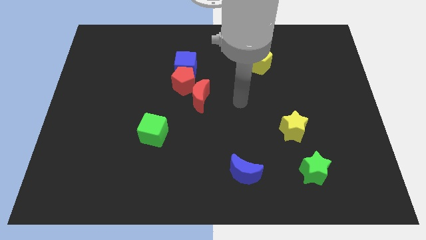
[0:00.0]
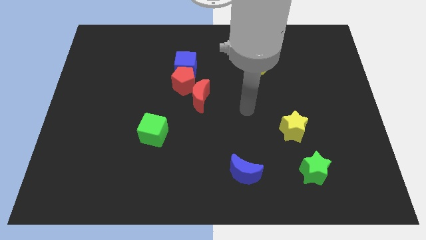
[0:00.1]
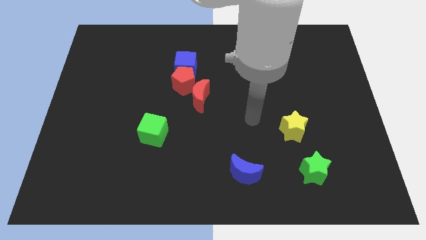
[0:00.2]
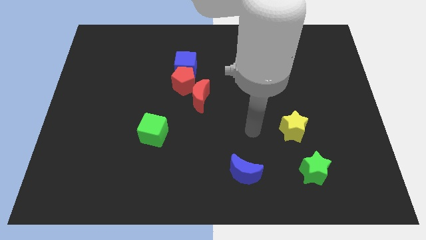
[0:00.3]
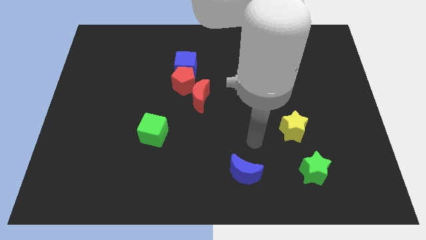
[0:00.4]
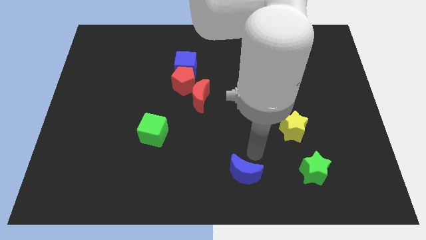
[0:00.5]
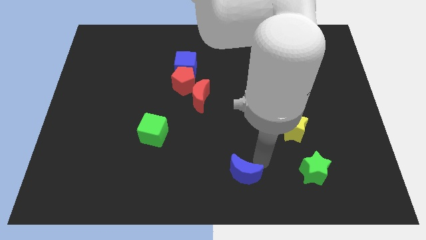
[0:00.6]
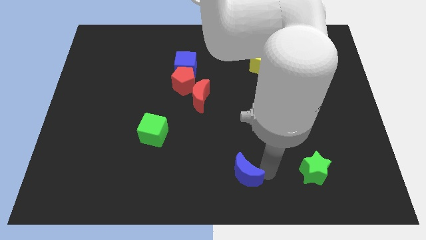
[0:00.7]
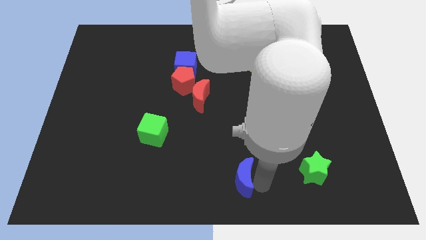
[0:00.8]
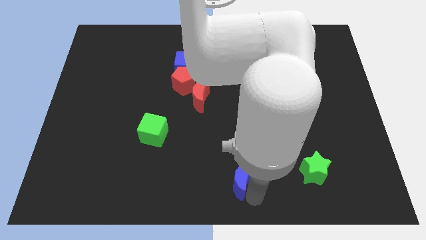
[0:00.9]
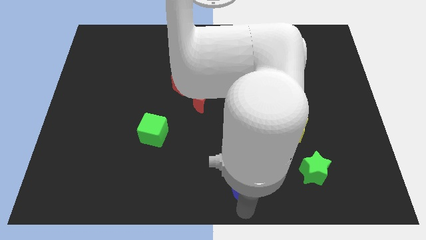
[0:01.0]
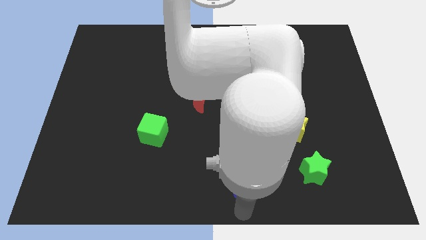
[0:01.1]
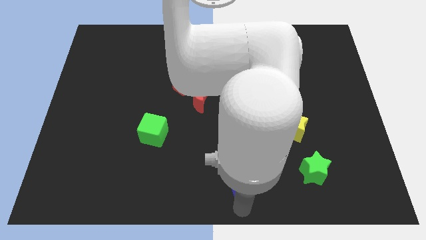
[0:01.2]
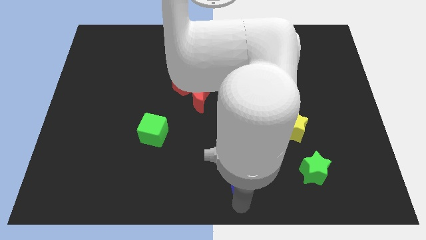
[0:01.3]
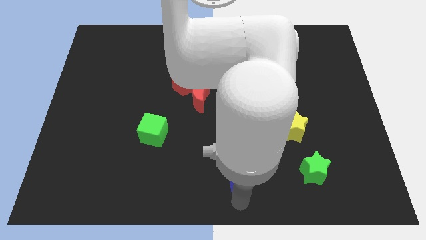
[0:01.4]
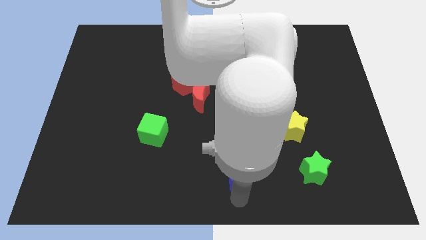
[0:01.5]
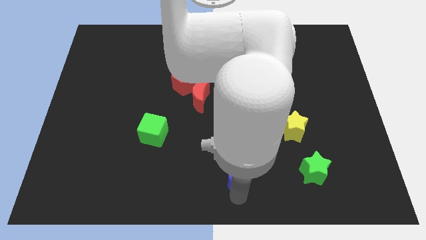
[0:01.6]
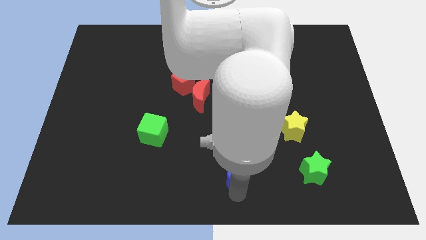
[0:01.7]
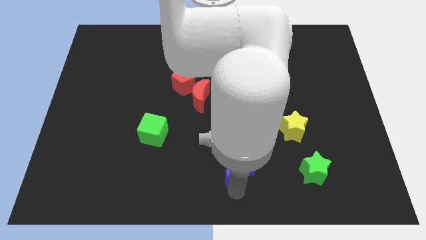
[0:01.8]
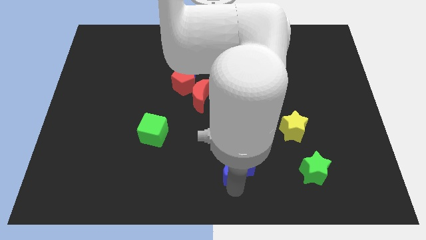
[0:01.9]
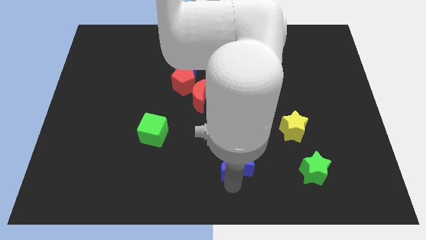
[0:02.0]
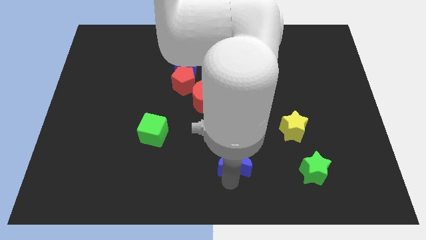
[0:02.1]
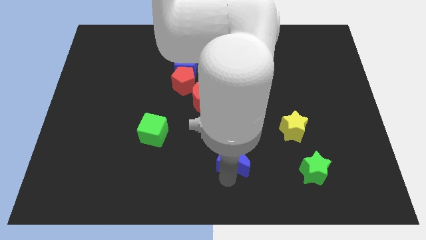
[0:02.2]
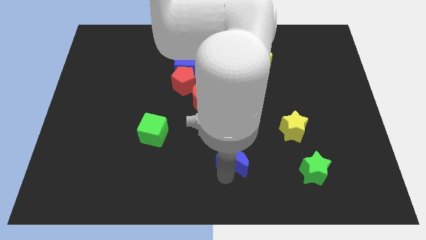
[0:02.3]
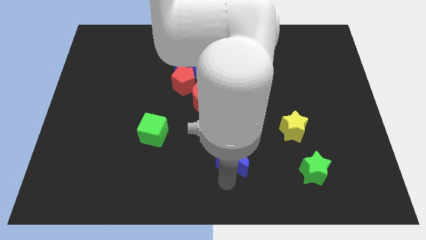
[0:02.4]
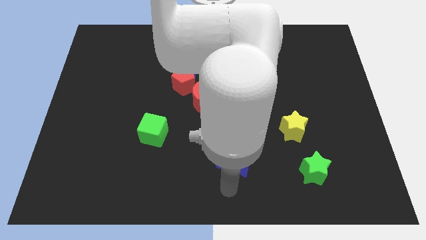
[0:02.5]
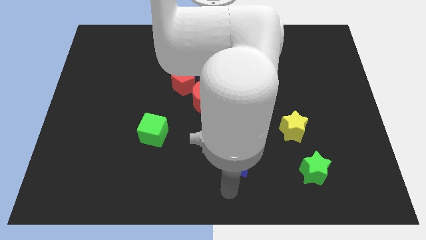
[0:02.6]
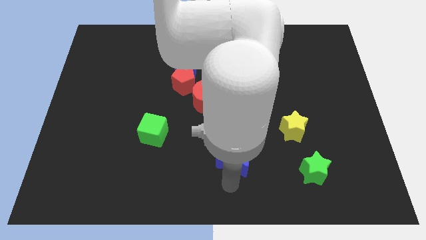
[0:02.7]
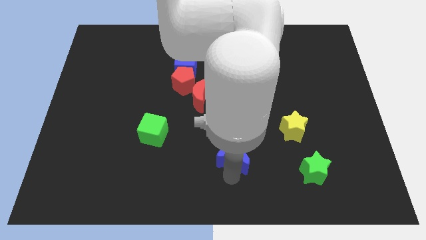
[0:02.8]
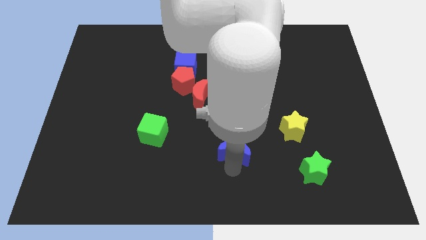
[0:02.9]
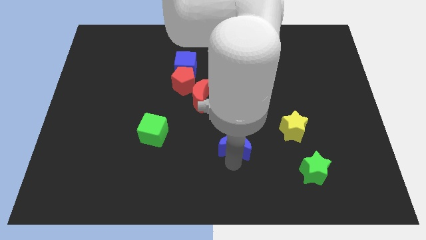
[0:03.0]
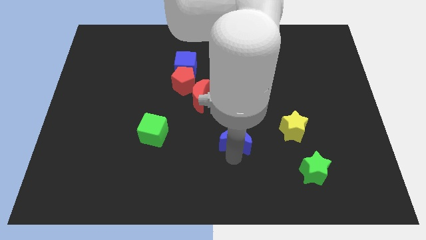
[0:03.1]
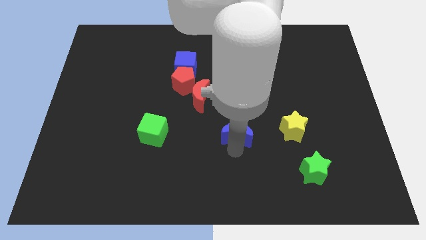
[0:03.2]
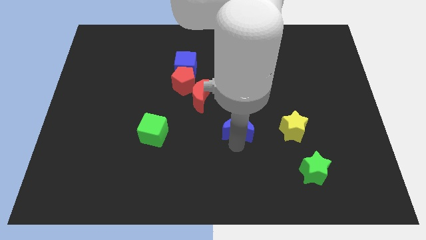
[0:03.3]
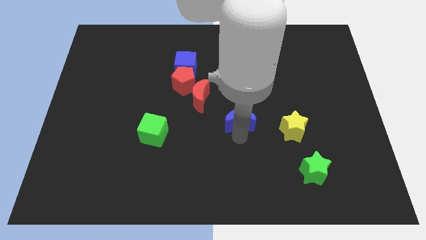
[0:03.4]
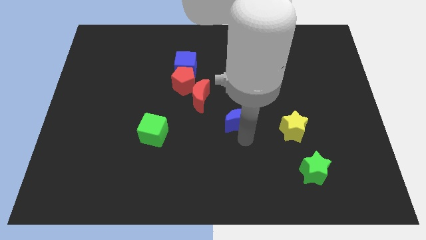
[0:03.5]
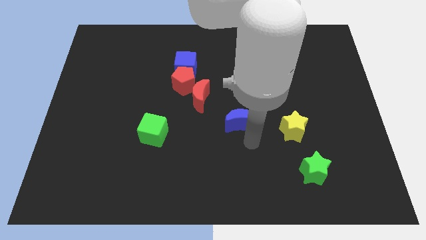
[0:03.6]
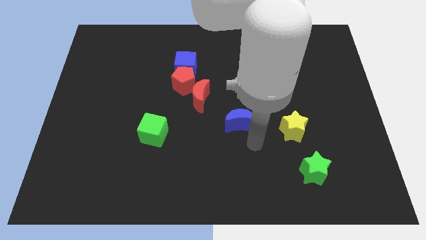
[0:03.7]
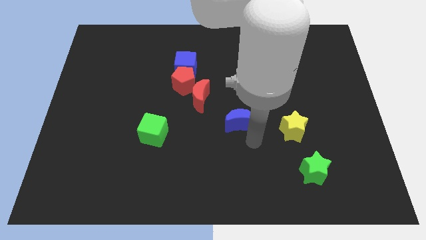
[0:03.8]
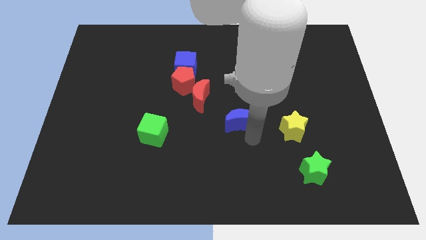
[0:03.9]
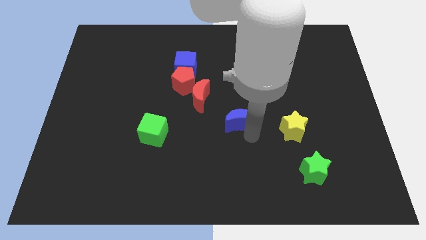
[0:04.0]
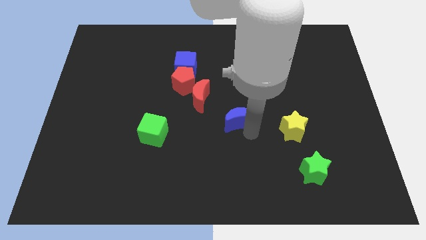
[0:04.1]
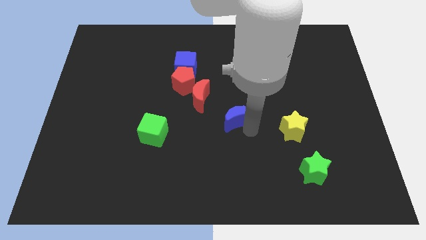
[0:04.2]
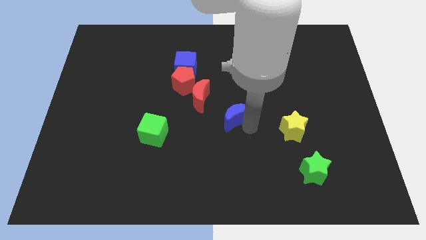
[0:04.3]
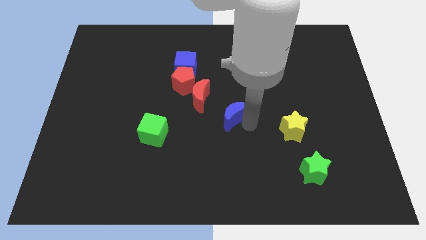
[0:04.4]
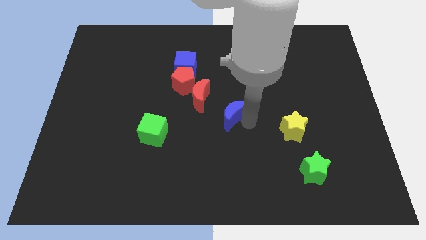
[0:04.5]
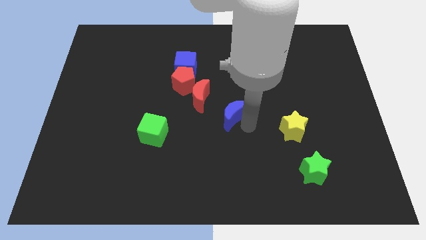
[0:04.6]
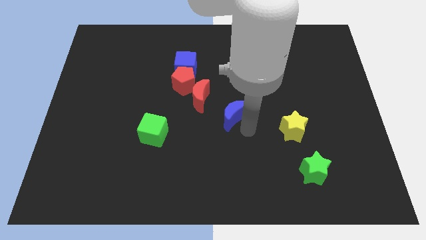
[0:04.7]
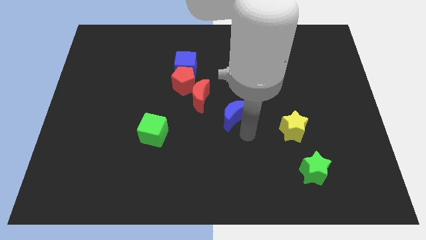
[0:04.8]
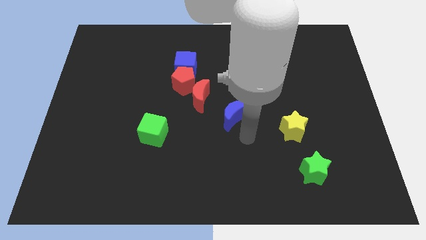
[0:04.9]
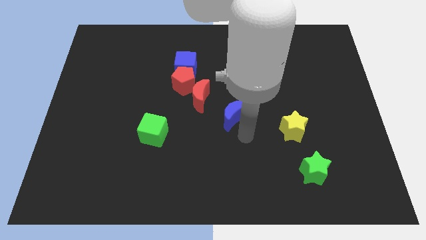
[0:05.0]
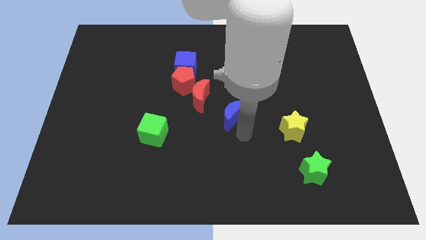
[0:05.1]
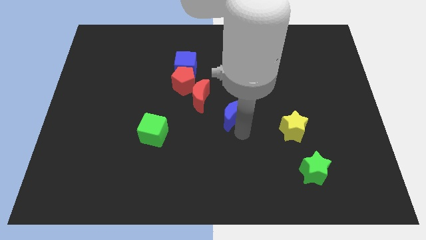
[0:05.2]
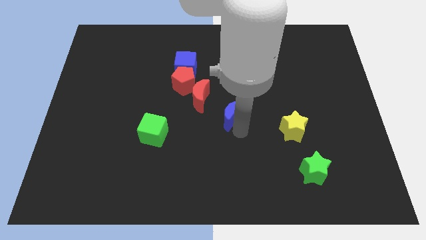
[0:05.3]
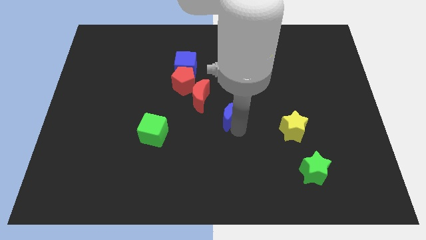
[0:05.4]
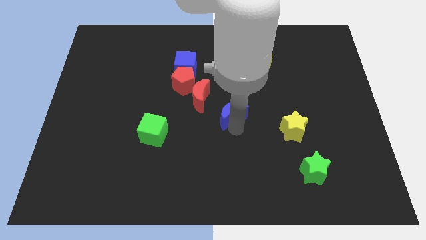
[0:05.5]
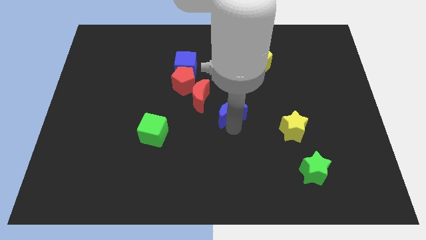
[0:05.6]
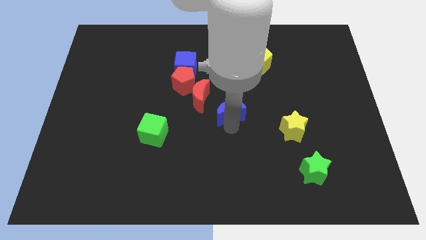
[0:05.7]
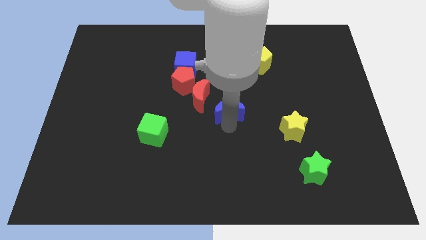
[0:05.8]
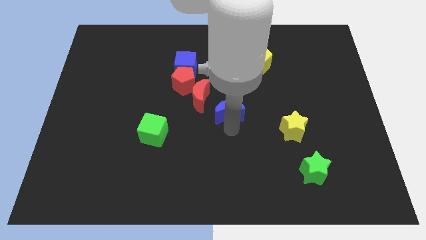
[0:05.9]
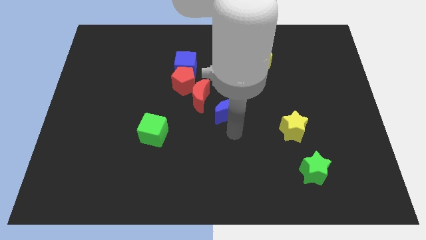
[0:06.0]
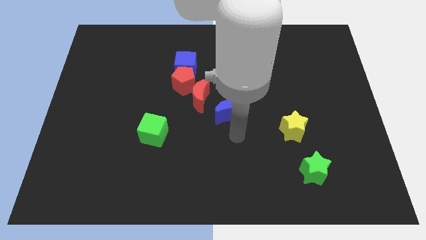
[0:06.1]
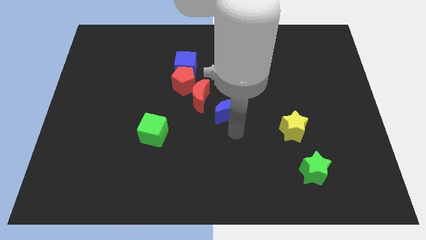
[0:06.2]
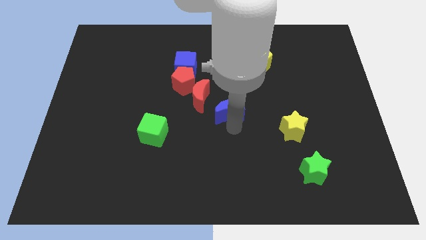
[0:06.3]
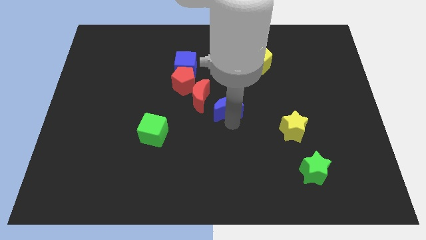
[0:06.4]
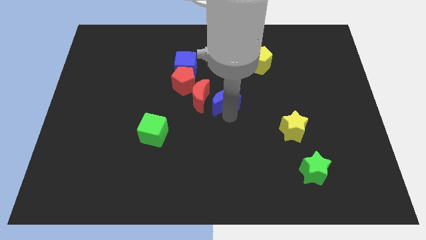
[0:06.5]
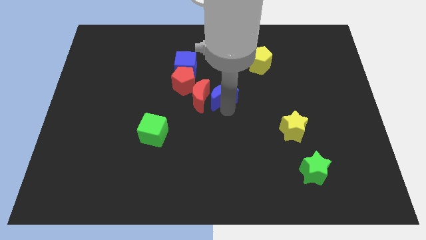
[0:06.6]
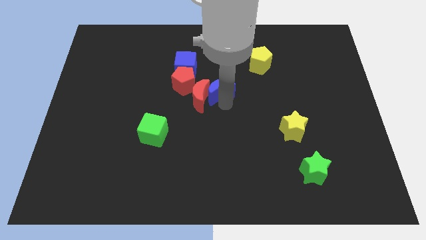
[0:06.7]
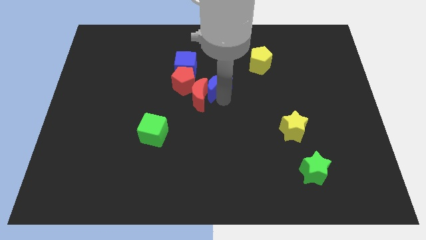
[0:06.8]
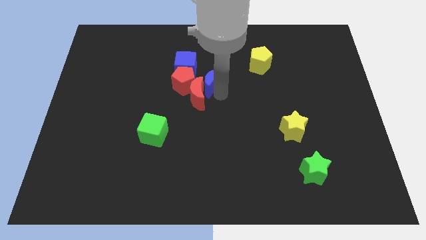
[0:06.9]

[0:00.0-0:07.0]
put the blue moon to the top right side of the red pentagon

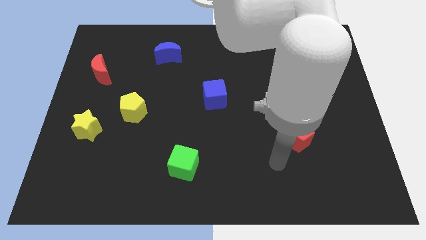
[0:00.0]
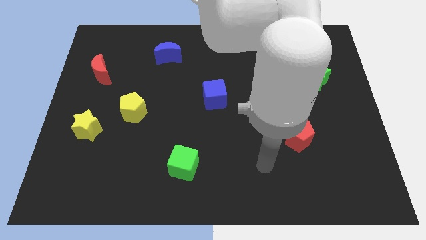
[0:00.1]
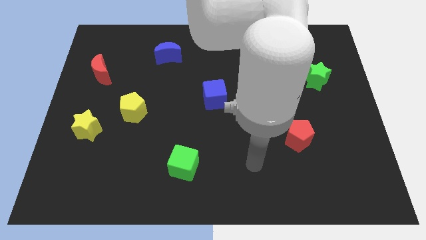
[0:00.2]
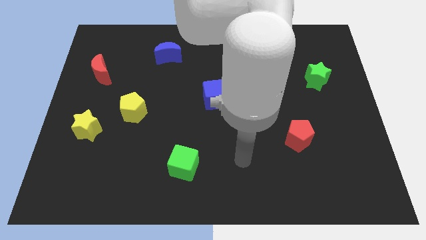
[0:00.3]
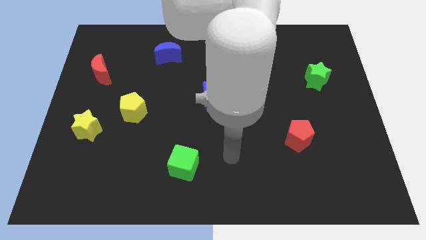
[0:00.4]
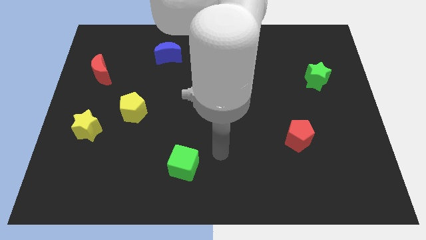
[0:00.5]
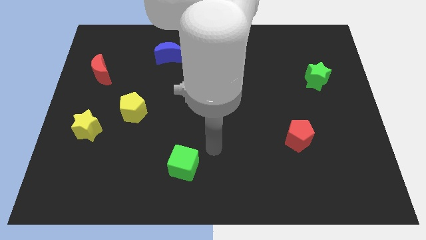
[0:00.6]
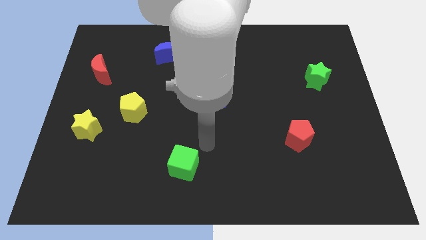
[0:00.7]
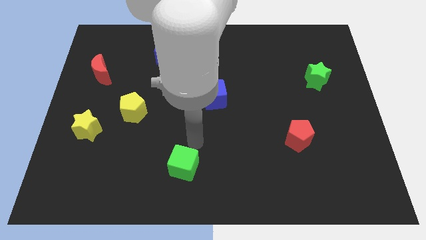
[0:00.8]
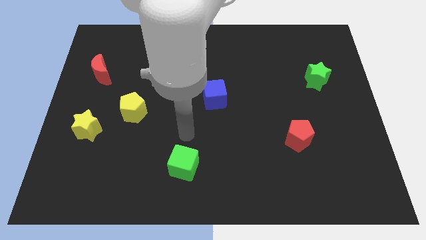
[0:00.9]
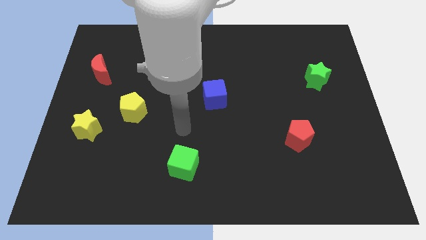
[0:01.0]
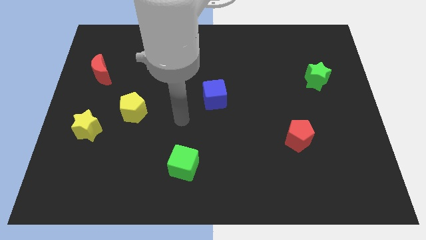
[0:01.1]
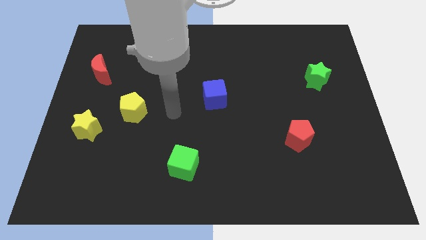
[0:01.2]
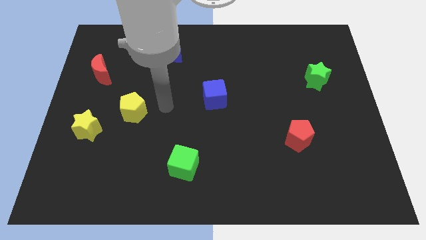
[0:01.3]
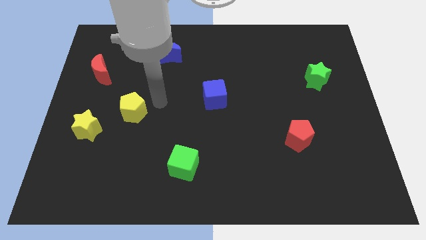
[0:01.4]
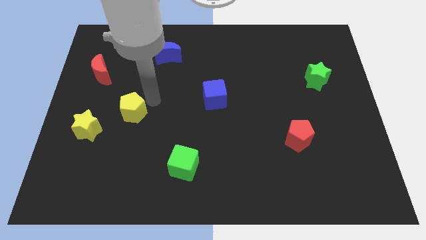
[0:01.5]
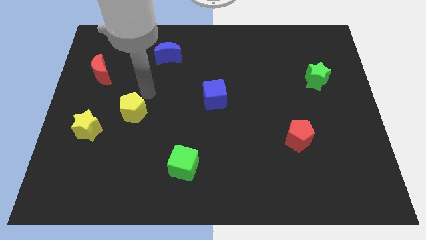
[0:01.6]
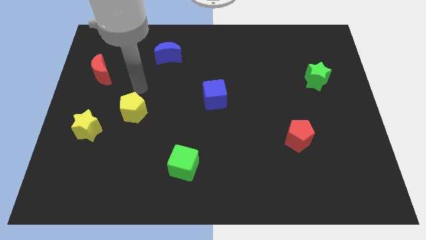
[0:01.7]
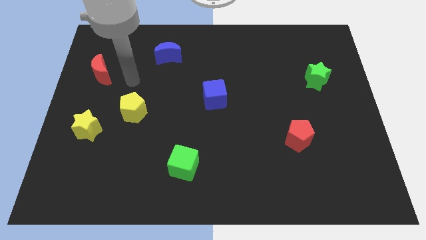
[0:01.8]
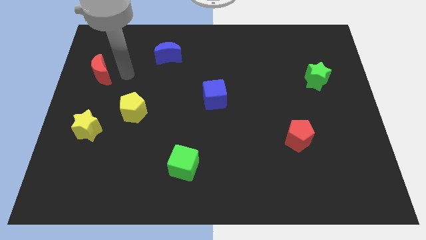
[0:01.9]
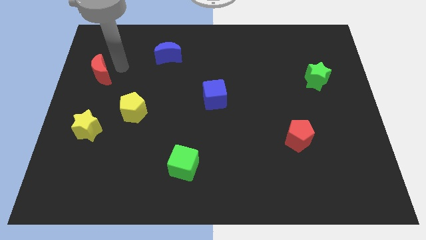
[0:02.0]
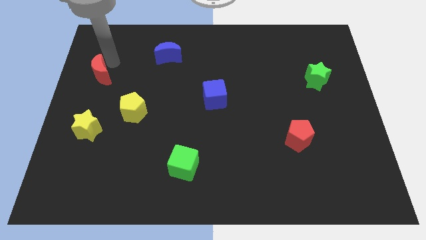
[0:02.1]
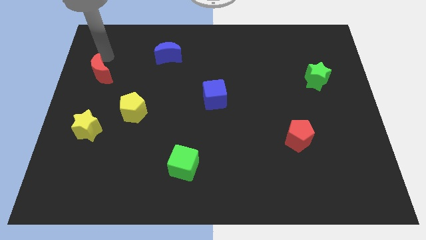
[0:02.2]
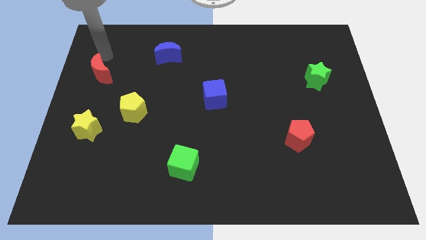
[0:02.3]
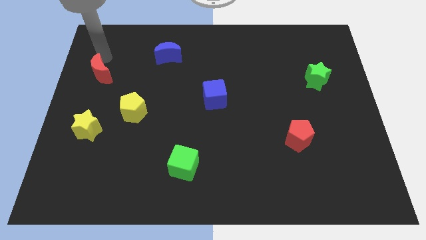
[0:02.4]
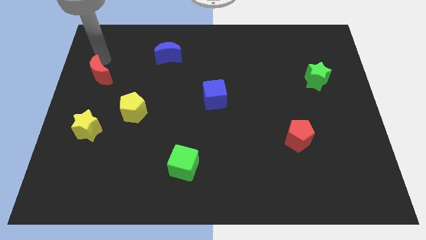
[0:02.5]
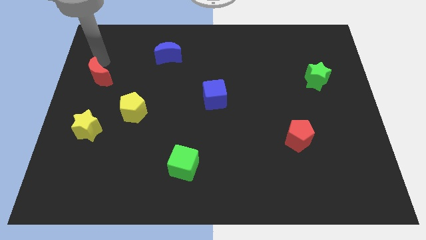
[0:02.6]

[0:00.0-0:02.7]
slide the red moon to the top of the yellow star
